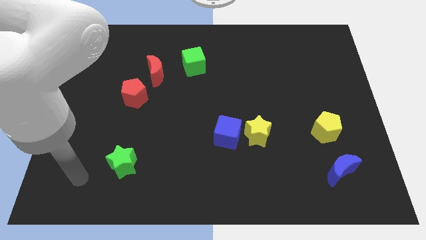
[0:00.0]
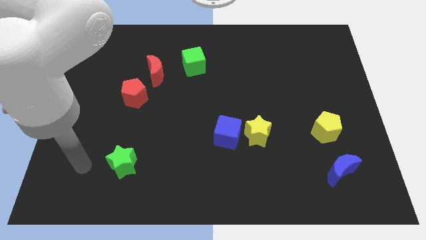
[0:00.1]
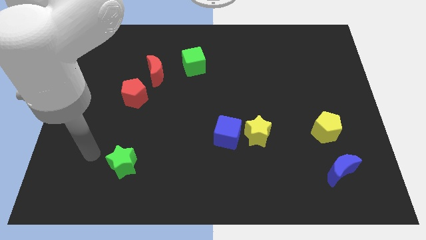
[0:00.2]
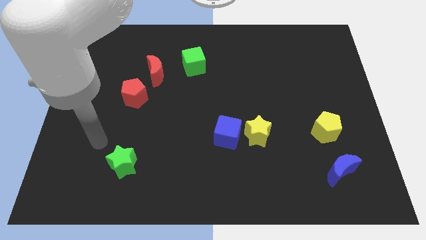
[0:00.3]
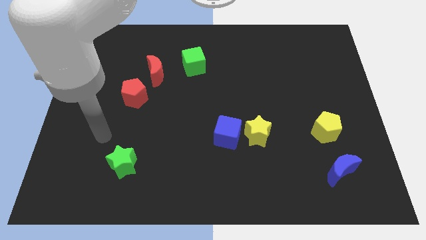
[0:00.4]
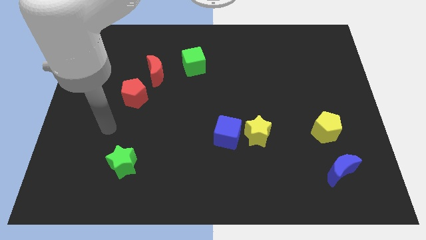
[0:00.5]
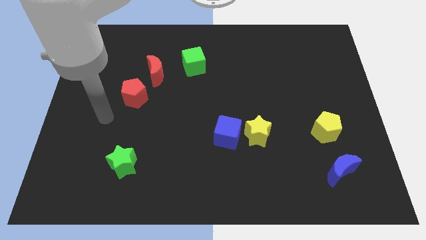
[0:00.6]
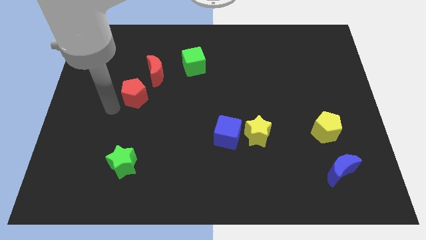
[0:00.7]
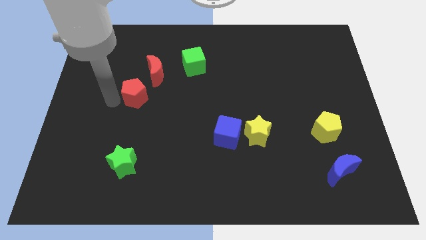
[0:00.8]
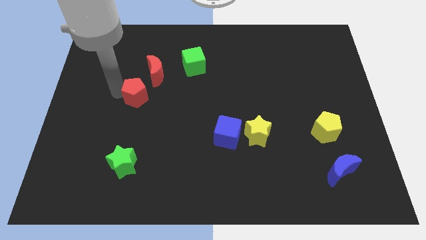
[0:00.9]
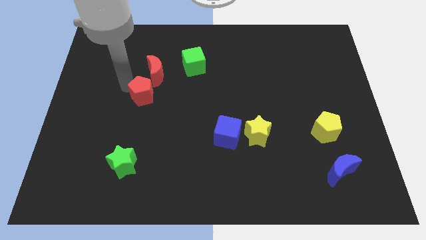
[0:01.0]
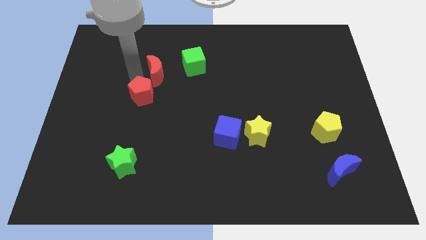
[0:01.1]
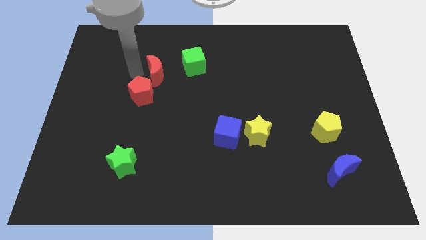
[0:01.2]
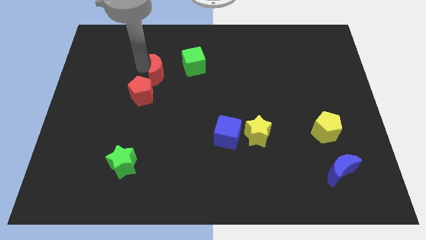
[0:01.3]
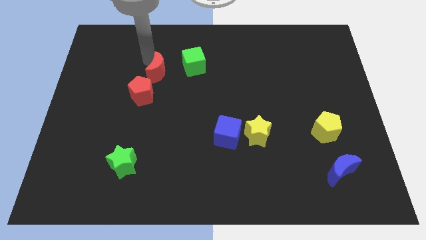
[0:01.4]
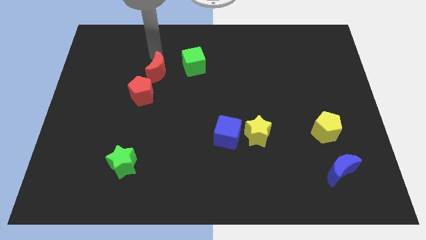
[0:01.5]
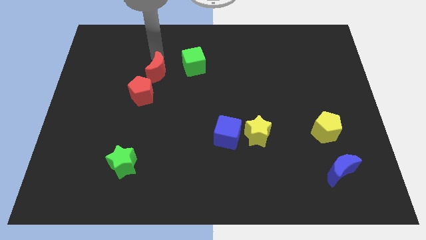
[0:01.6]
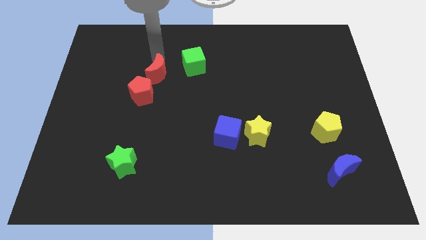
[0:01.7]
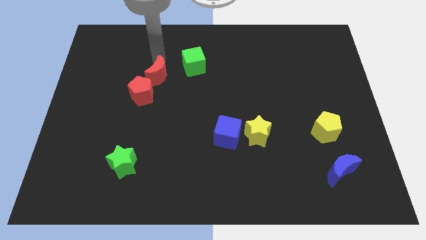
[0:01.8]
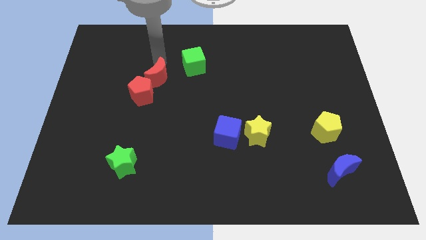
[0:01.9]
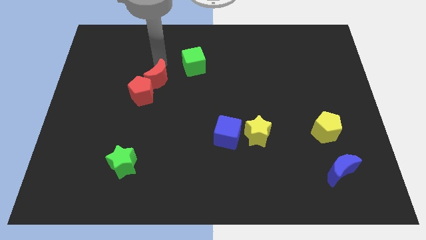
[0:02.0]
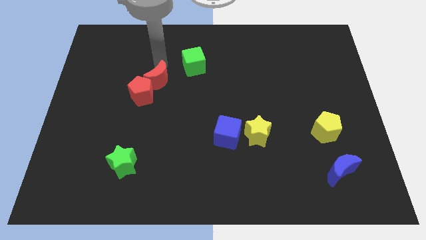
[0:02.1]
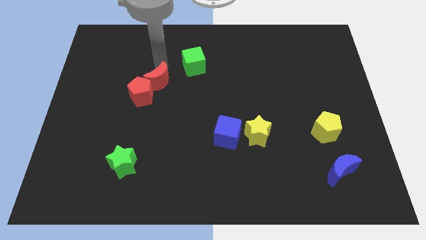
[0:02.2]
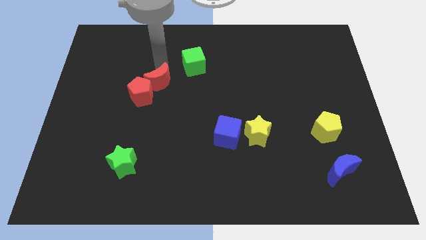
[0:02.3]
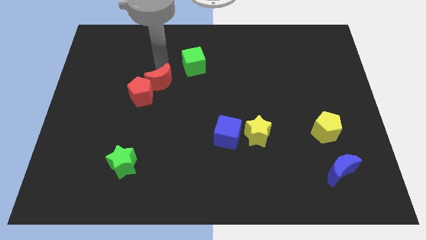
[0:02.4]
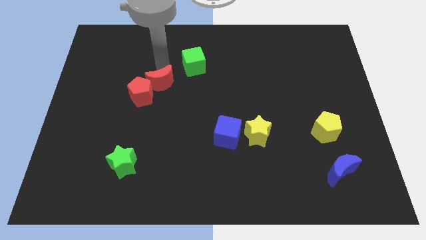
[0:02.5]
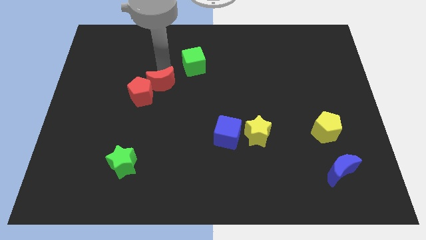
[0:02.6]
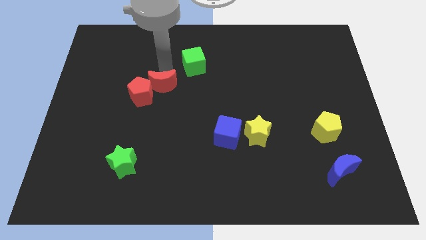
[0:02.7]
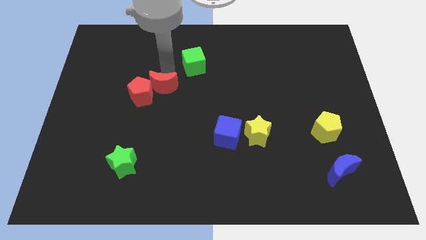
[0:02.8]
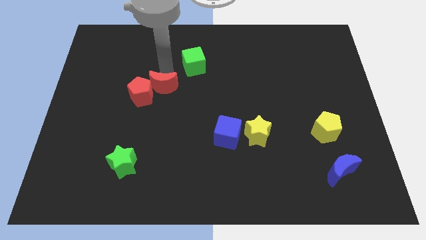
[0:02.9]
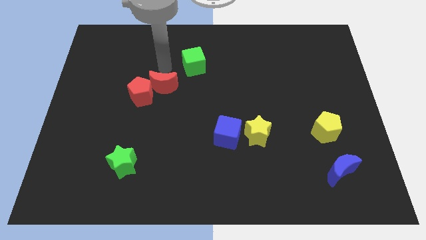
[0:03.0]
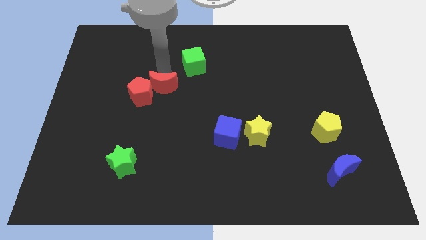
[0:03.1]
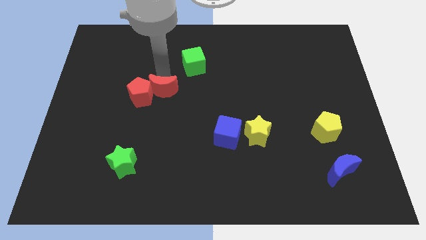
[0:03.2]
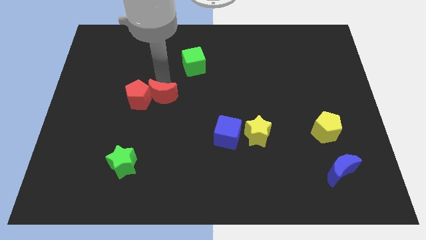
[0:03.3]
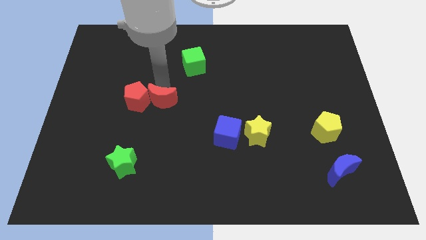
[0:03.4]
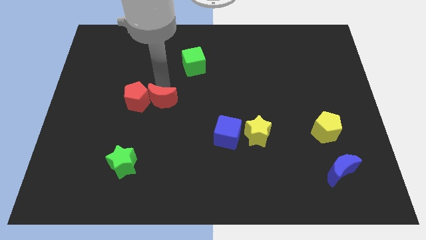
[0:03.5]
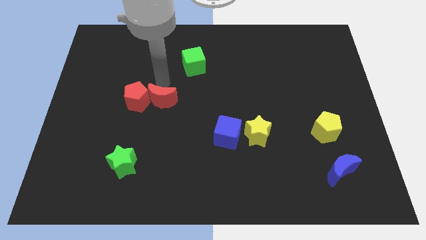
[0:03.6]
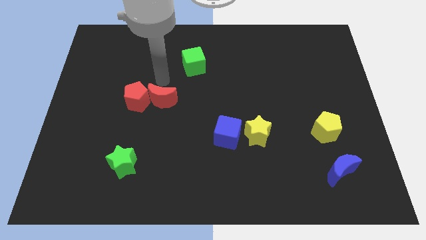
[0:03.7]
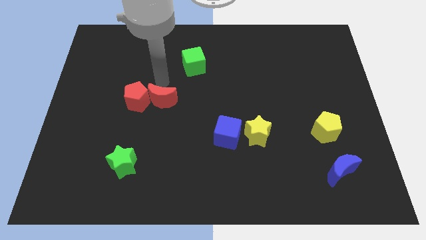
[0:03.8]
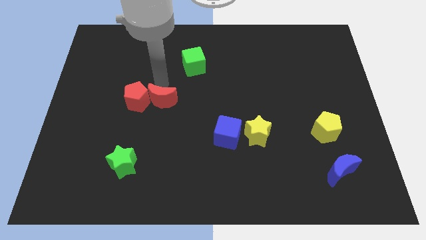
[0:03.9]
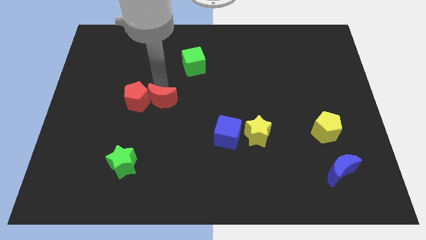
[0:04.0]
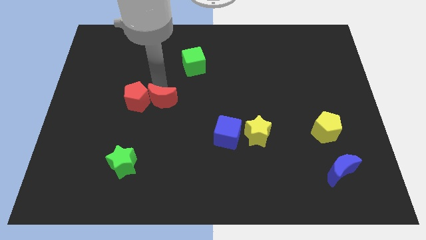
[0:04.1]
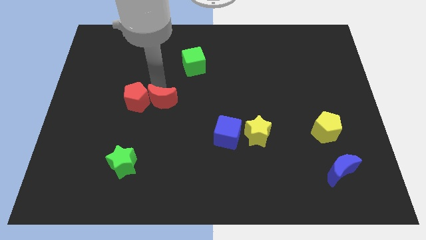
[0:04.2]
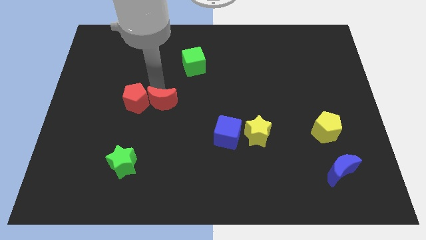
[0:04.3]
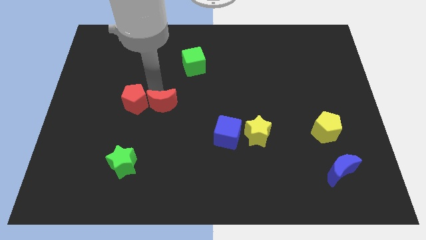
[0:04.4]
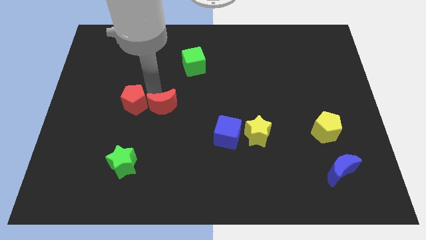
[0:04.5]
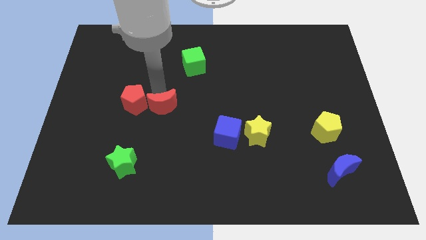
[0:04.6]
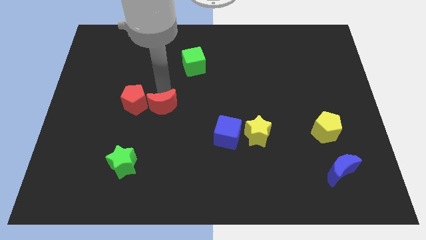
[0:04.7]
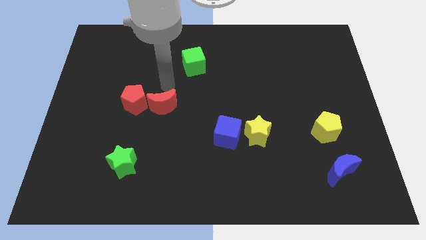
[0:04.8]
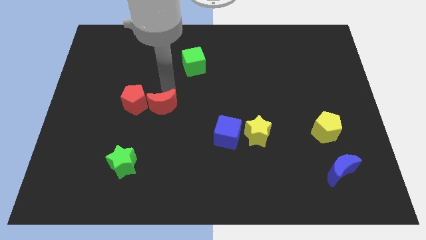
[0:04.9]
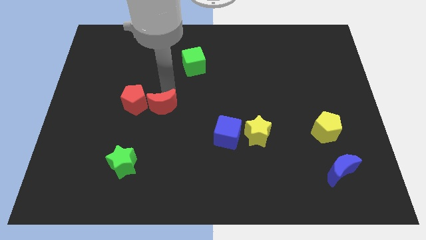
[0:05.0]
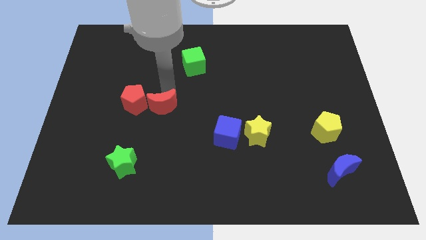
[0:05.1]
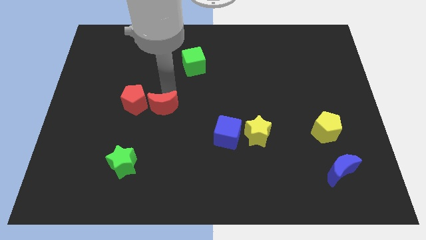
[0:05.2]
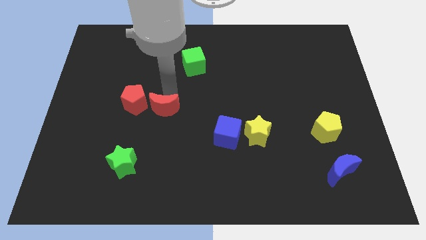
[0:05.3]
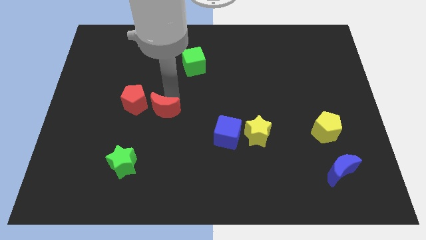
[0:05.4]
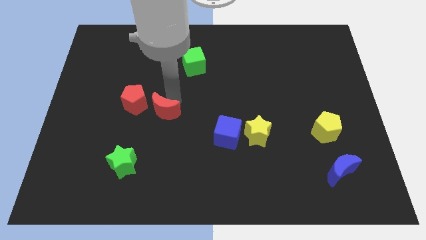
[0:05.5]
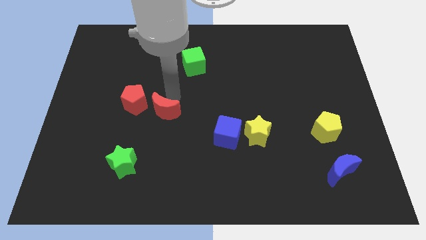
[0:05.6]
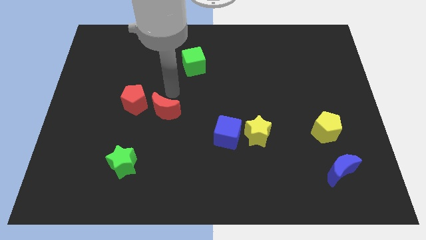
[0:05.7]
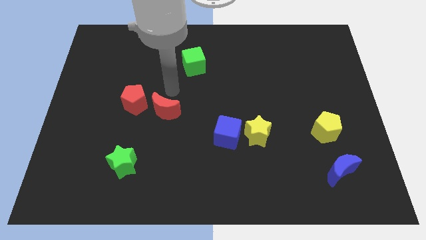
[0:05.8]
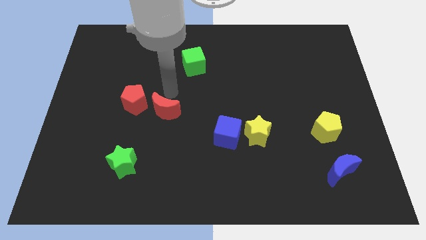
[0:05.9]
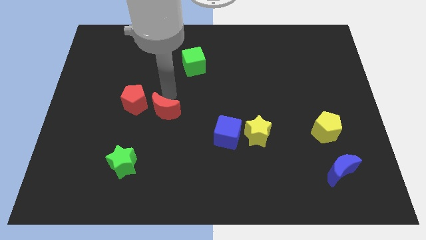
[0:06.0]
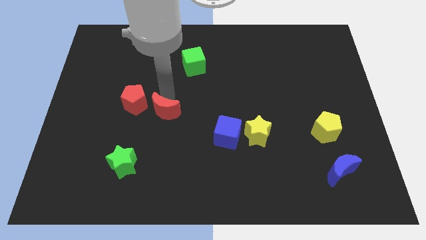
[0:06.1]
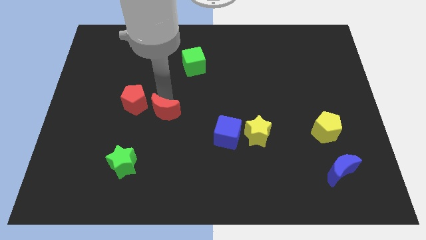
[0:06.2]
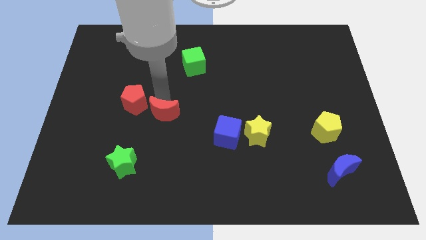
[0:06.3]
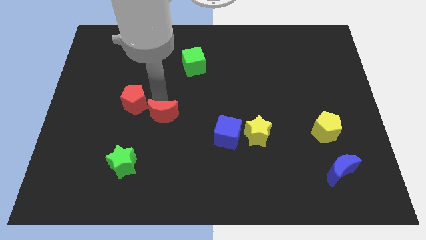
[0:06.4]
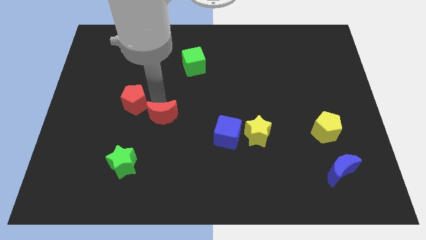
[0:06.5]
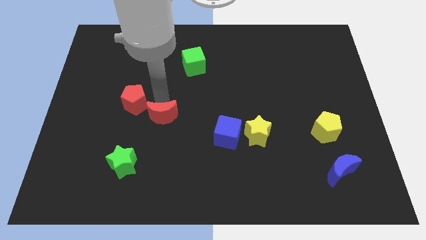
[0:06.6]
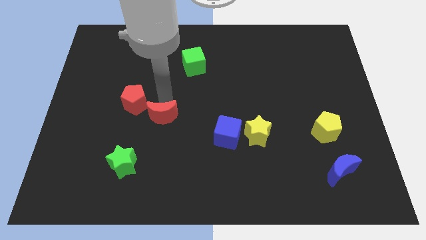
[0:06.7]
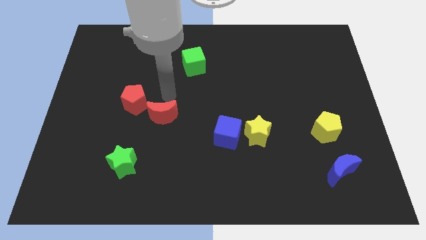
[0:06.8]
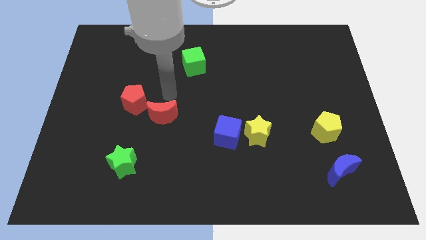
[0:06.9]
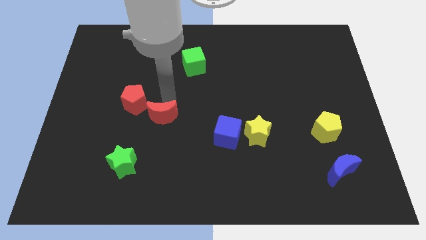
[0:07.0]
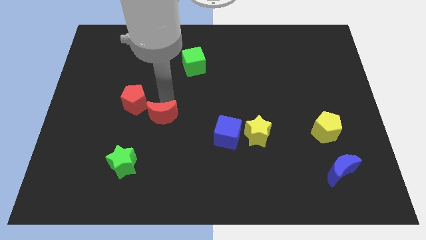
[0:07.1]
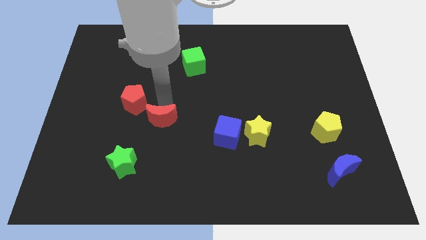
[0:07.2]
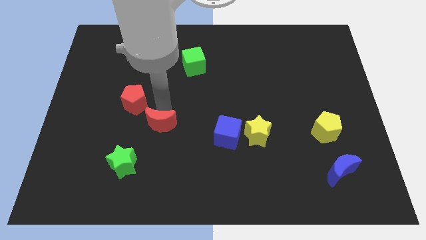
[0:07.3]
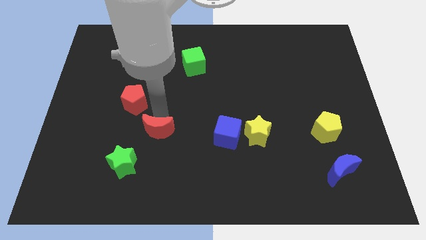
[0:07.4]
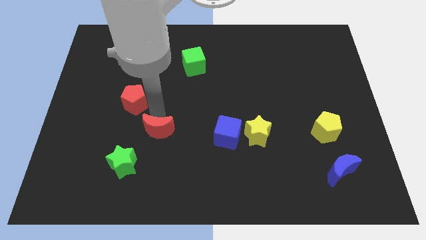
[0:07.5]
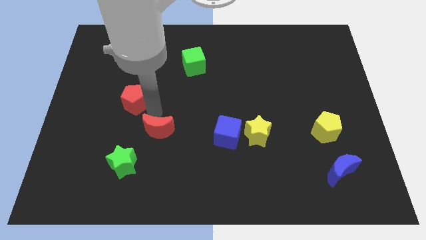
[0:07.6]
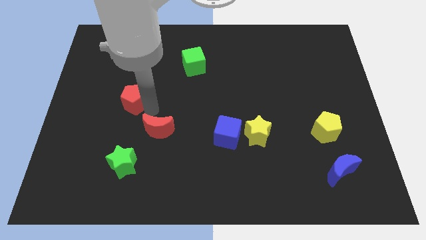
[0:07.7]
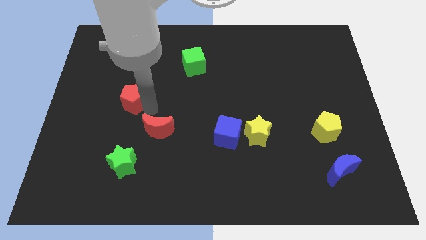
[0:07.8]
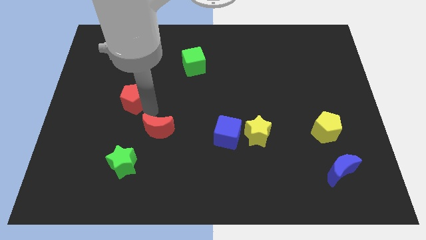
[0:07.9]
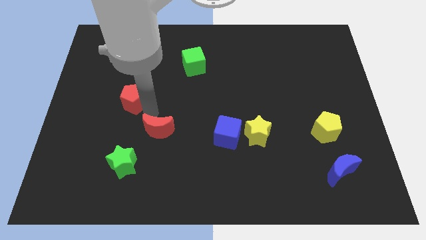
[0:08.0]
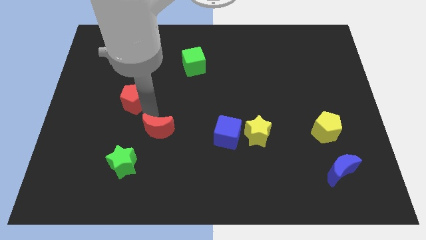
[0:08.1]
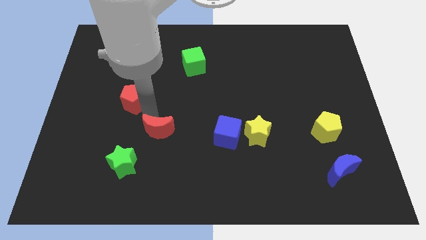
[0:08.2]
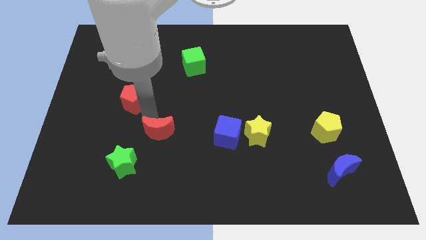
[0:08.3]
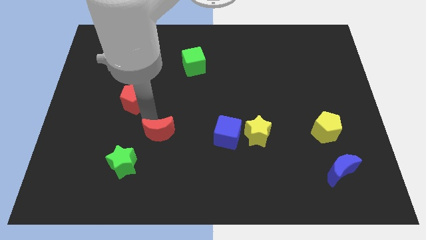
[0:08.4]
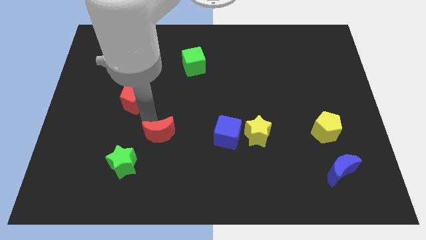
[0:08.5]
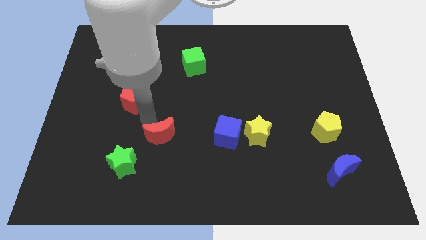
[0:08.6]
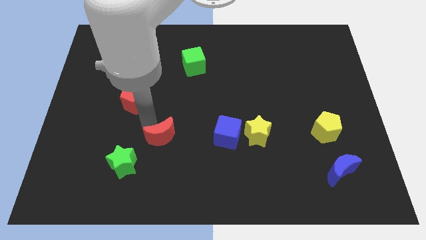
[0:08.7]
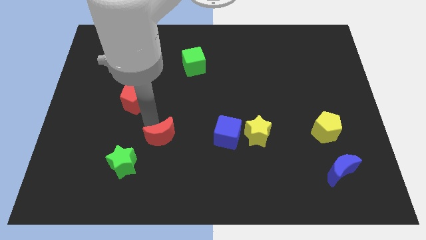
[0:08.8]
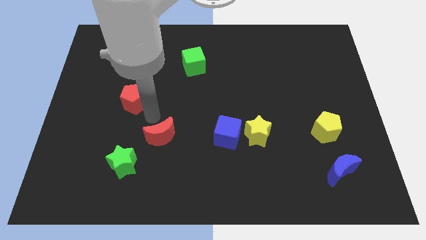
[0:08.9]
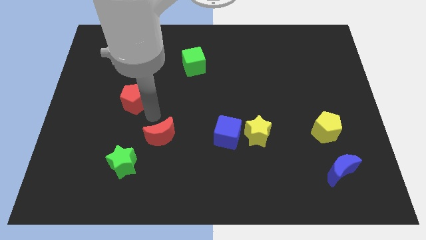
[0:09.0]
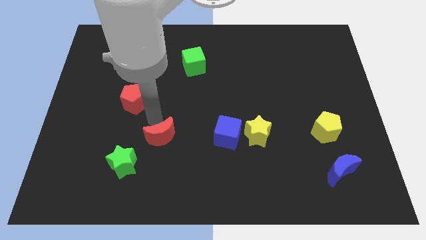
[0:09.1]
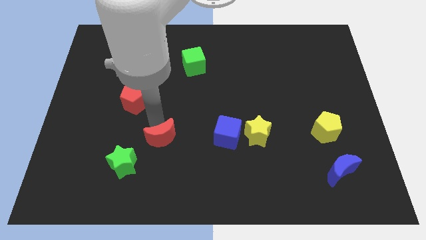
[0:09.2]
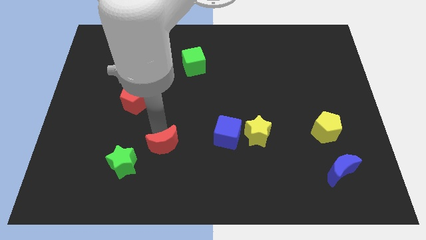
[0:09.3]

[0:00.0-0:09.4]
slide the red moon right of the green star
